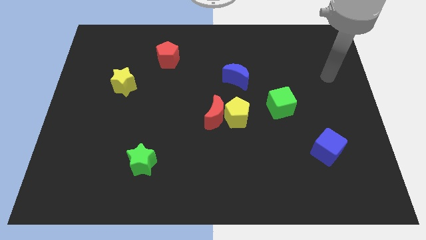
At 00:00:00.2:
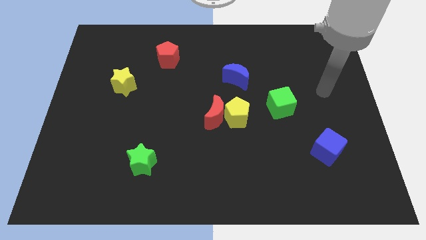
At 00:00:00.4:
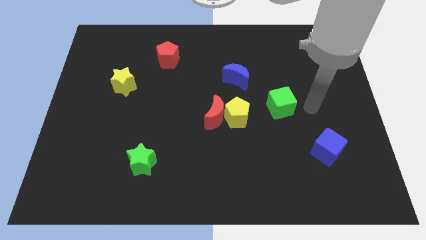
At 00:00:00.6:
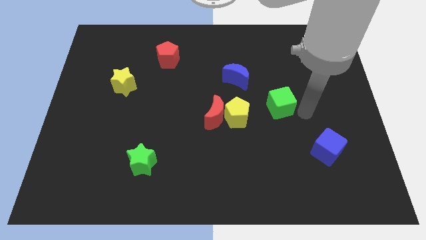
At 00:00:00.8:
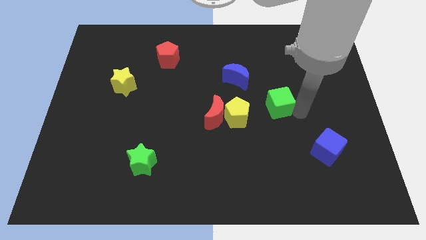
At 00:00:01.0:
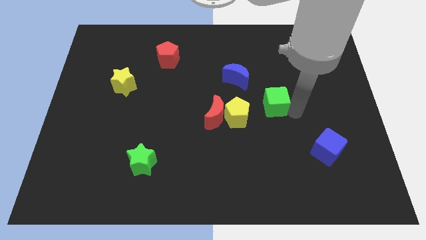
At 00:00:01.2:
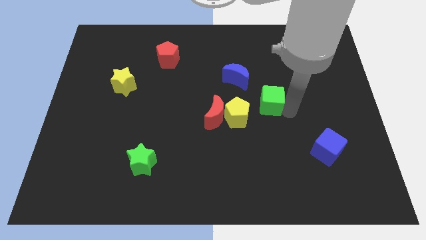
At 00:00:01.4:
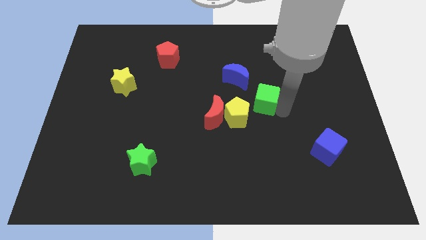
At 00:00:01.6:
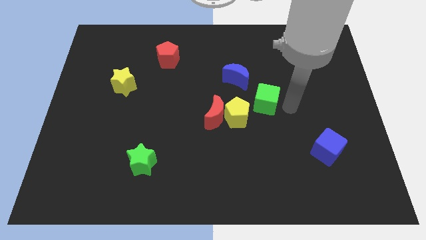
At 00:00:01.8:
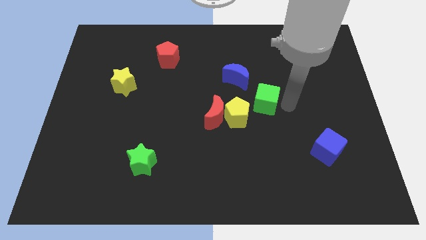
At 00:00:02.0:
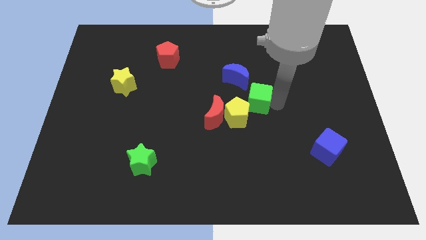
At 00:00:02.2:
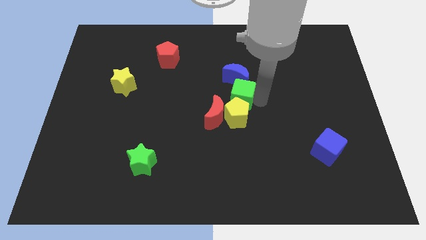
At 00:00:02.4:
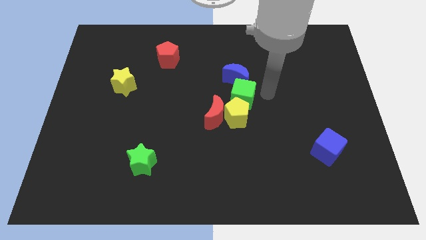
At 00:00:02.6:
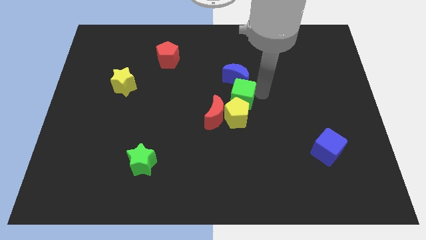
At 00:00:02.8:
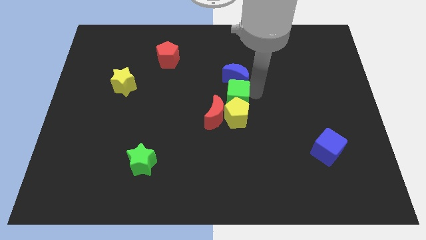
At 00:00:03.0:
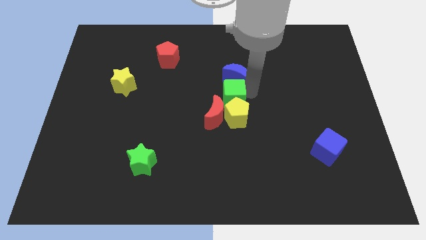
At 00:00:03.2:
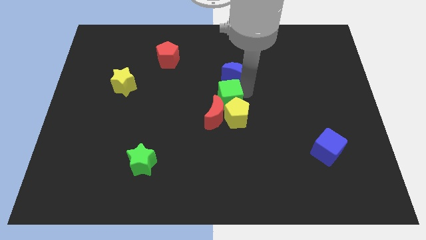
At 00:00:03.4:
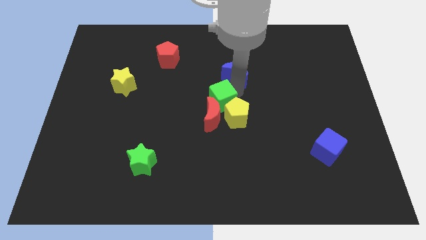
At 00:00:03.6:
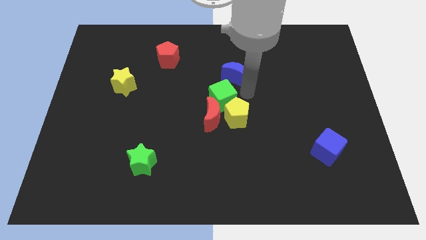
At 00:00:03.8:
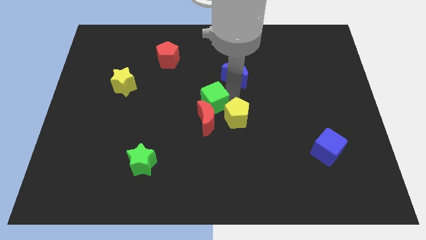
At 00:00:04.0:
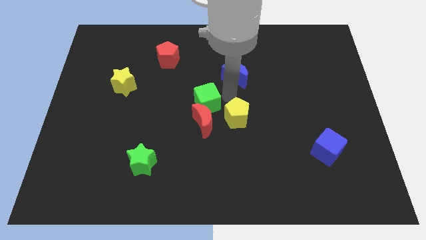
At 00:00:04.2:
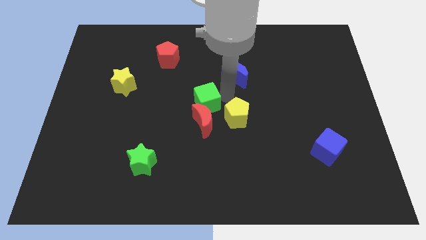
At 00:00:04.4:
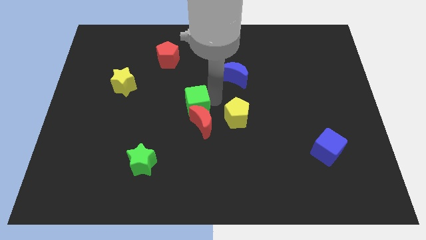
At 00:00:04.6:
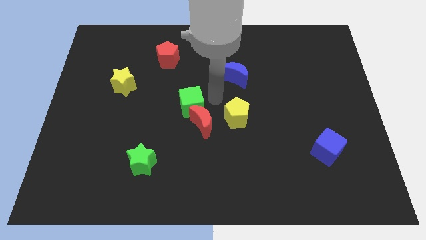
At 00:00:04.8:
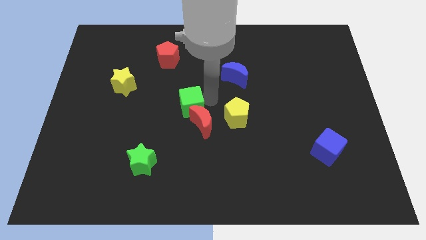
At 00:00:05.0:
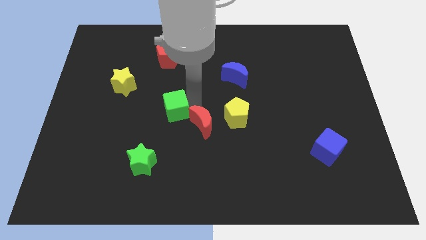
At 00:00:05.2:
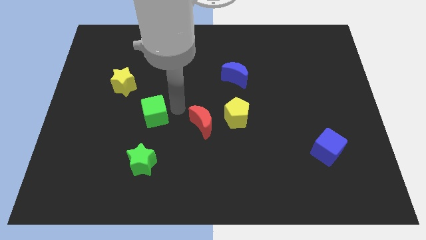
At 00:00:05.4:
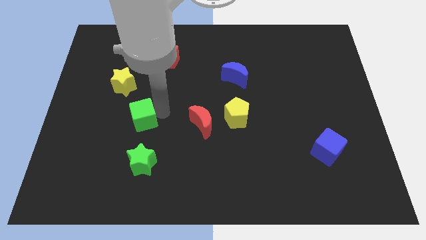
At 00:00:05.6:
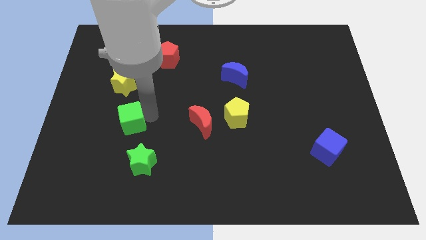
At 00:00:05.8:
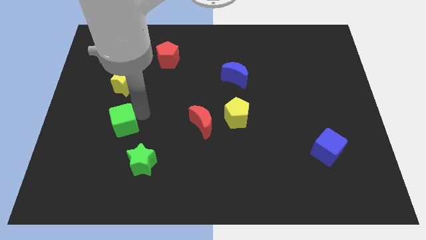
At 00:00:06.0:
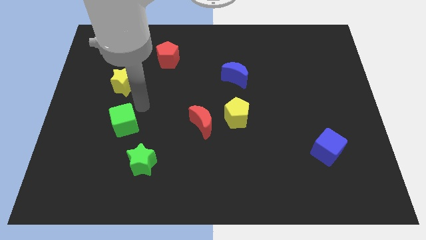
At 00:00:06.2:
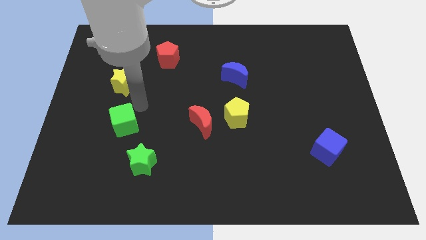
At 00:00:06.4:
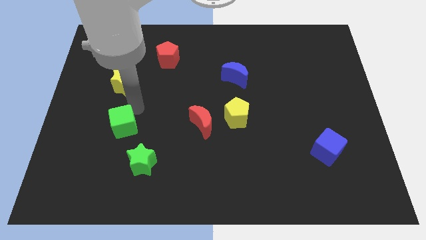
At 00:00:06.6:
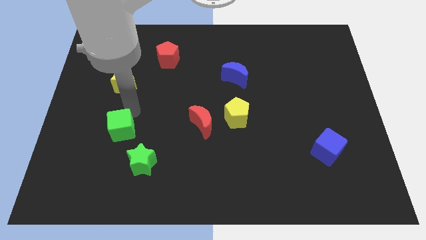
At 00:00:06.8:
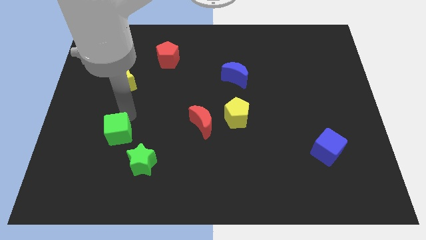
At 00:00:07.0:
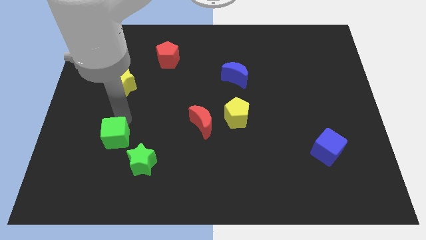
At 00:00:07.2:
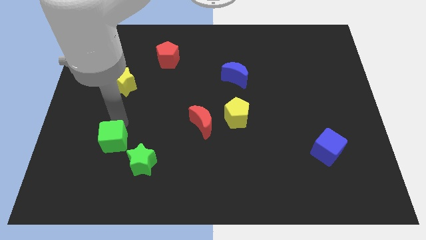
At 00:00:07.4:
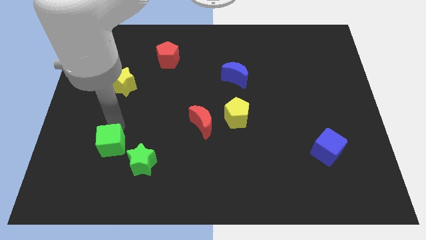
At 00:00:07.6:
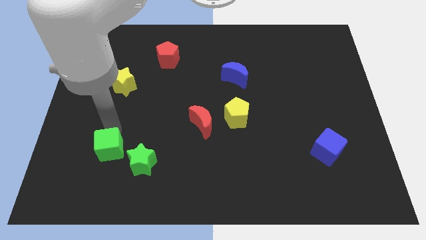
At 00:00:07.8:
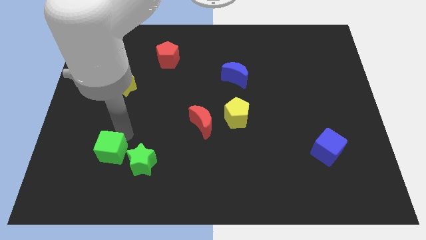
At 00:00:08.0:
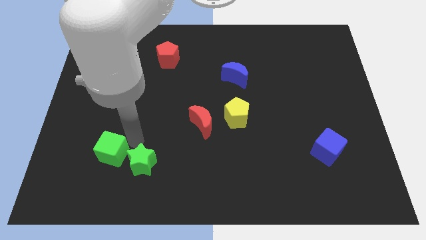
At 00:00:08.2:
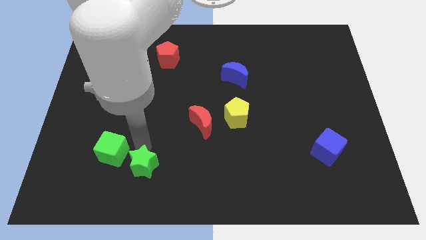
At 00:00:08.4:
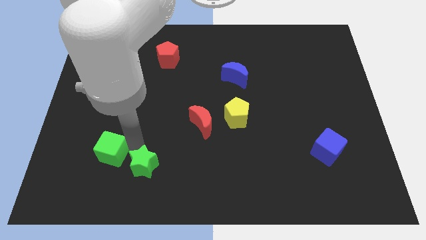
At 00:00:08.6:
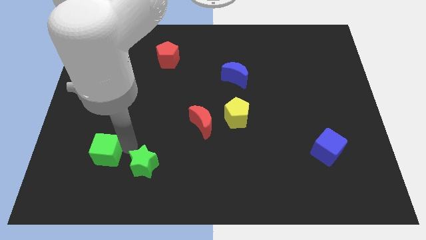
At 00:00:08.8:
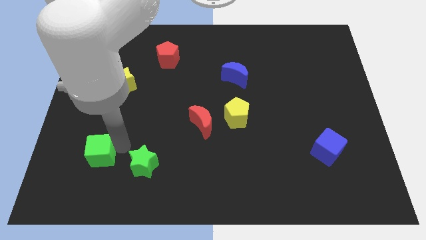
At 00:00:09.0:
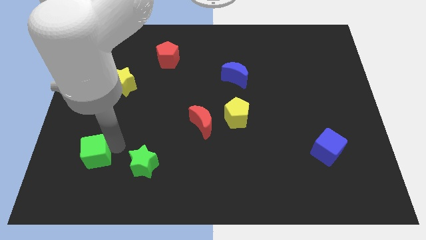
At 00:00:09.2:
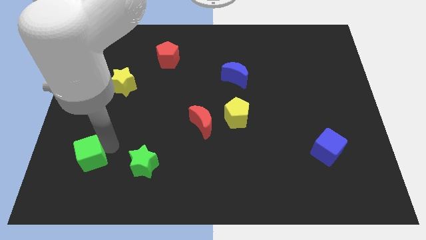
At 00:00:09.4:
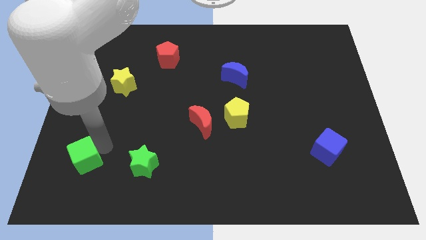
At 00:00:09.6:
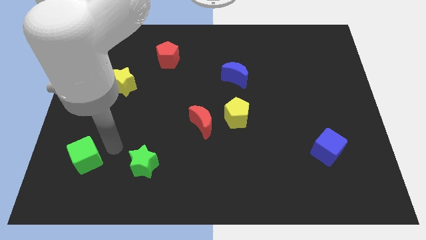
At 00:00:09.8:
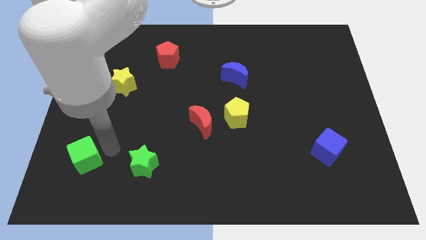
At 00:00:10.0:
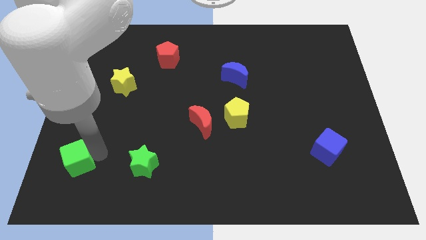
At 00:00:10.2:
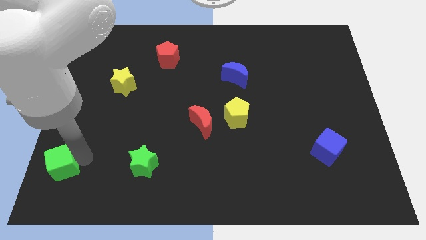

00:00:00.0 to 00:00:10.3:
move the green cube to the bottom left

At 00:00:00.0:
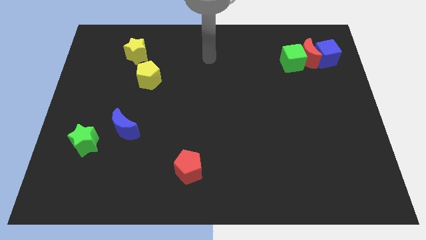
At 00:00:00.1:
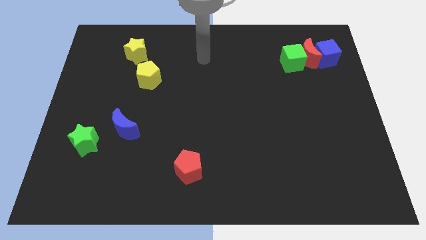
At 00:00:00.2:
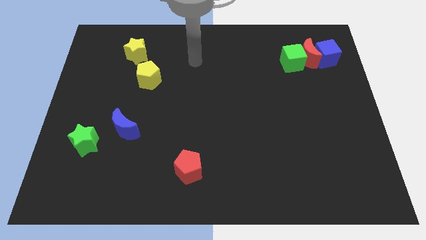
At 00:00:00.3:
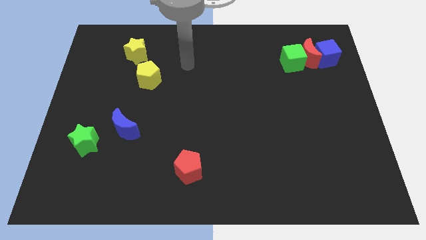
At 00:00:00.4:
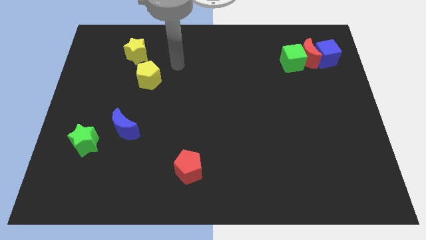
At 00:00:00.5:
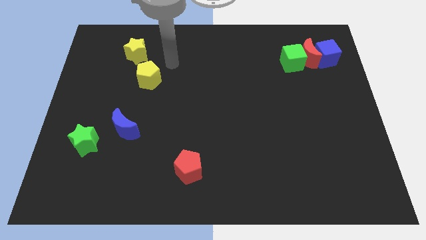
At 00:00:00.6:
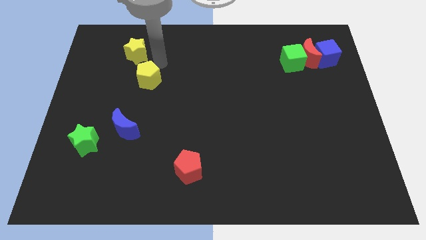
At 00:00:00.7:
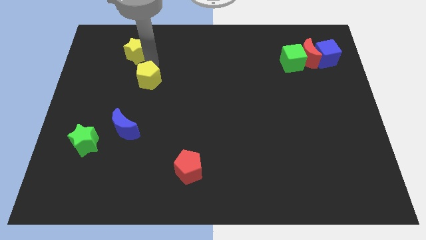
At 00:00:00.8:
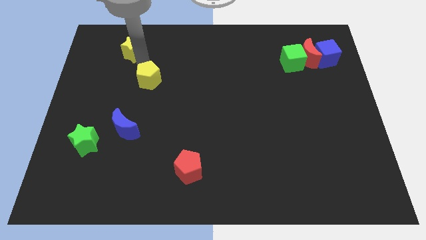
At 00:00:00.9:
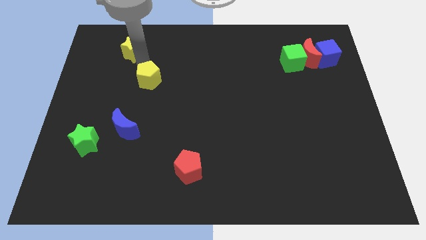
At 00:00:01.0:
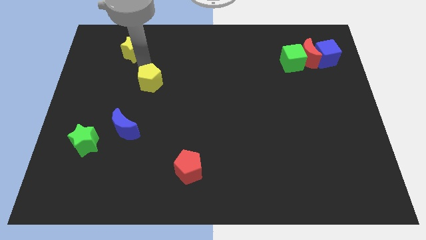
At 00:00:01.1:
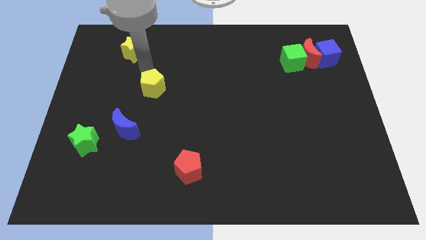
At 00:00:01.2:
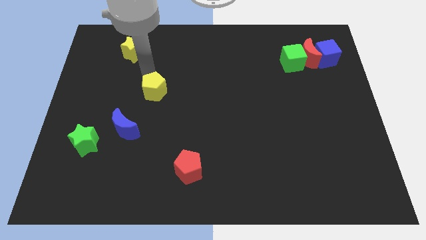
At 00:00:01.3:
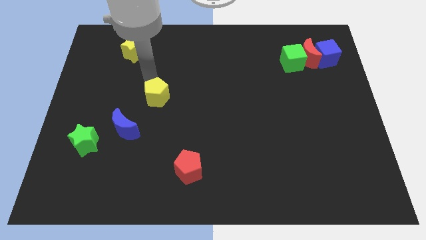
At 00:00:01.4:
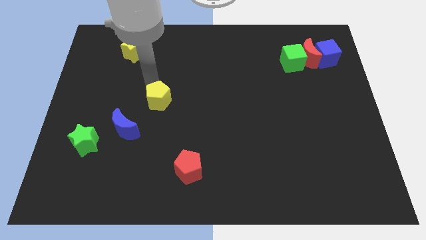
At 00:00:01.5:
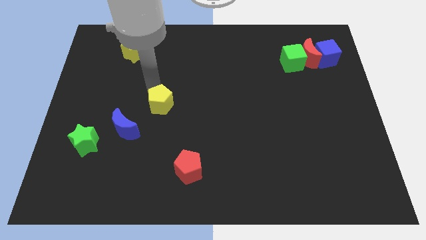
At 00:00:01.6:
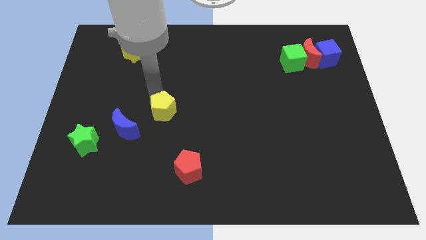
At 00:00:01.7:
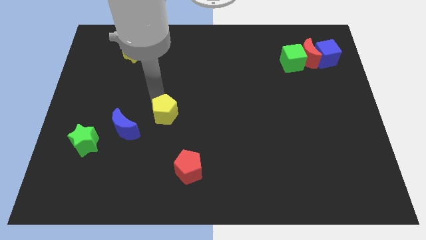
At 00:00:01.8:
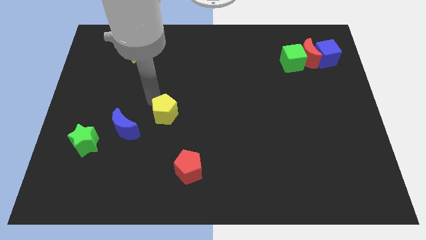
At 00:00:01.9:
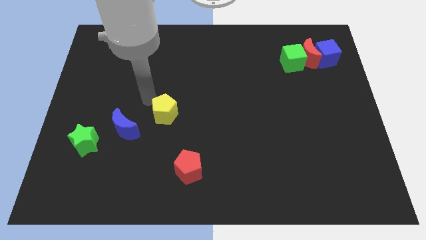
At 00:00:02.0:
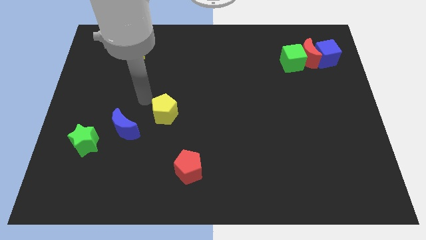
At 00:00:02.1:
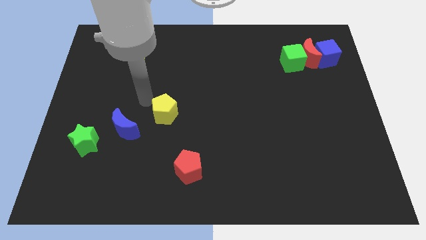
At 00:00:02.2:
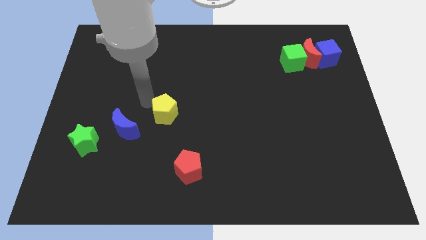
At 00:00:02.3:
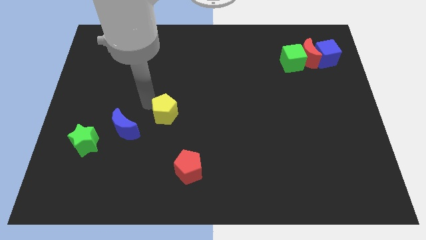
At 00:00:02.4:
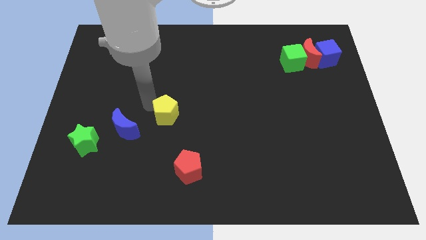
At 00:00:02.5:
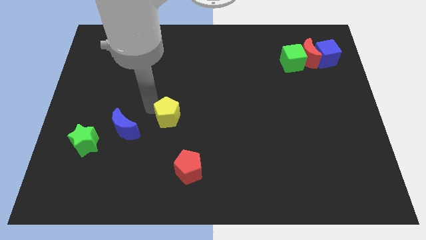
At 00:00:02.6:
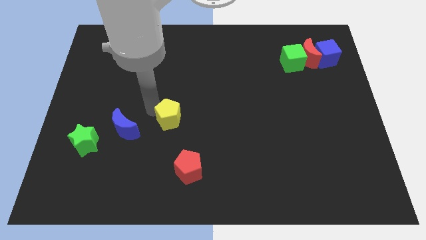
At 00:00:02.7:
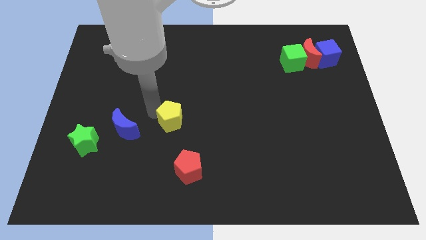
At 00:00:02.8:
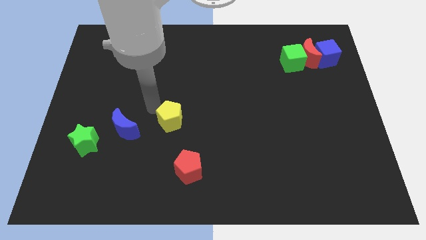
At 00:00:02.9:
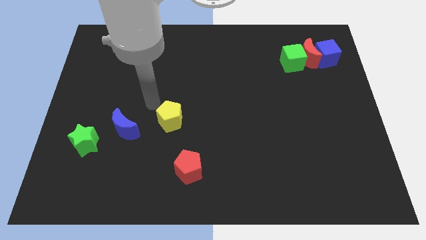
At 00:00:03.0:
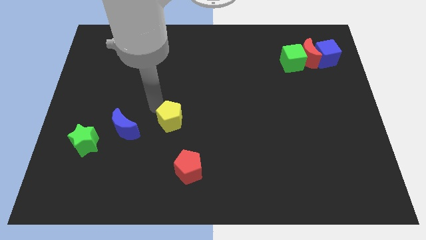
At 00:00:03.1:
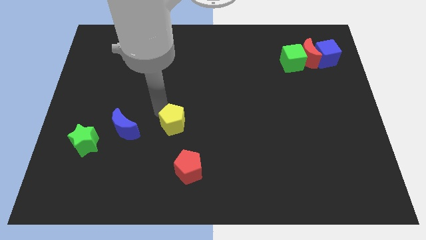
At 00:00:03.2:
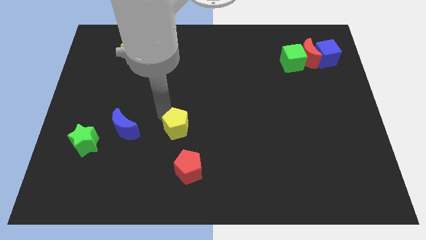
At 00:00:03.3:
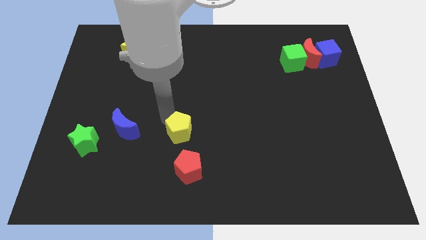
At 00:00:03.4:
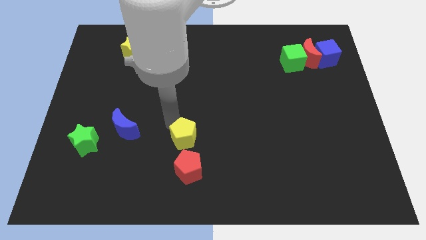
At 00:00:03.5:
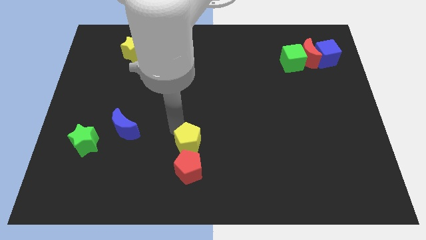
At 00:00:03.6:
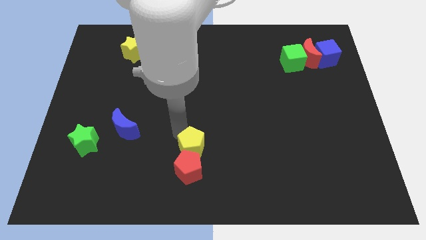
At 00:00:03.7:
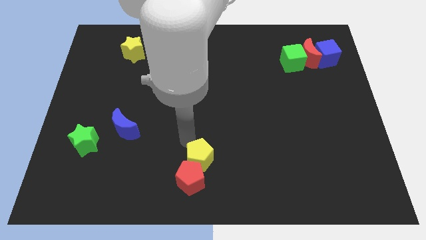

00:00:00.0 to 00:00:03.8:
push the yellow pentagon to the bottom side
